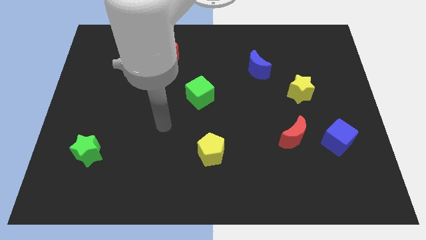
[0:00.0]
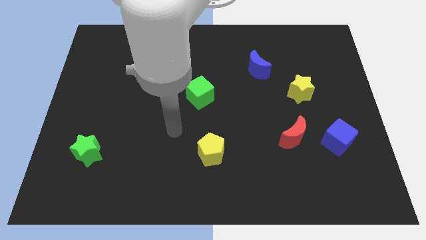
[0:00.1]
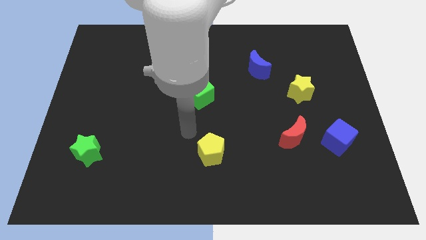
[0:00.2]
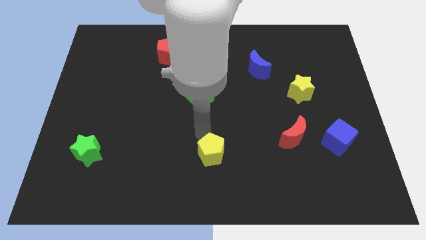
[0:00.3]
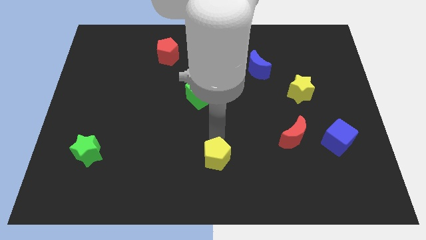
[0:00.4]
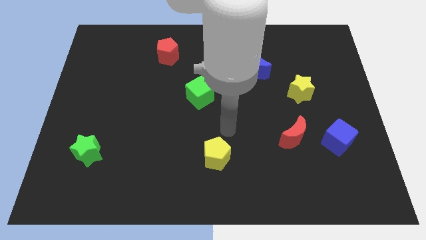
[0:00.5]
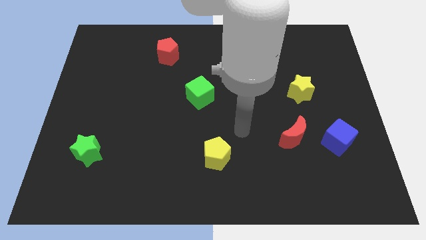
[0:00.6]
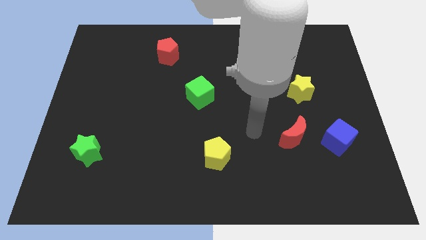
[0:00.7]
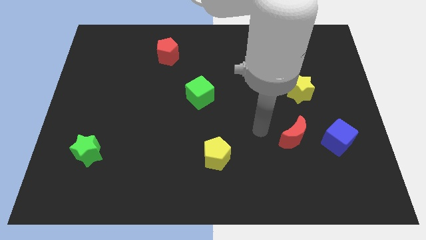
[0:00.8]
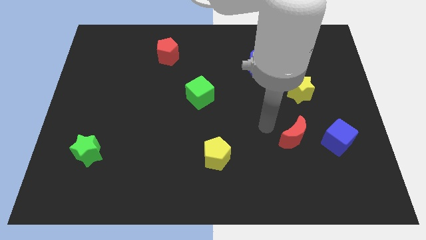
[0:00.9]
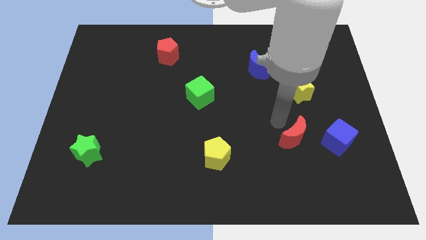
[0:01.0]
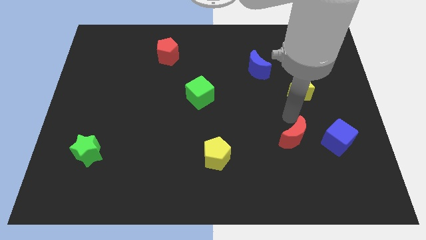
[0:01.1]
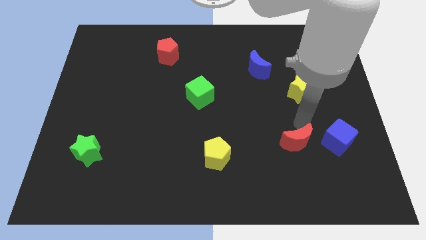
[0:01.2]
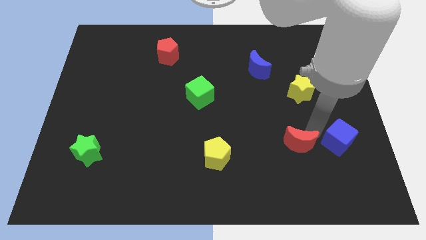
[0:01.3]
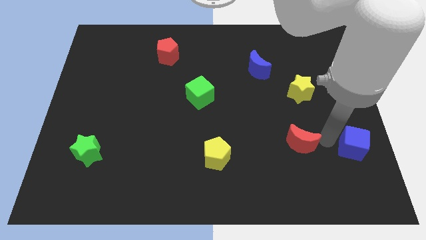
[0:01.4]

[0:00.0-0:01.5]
move the red moon away from the blue cube

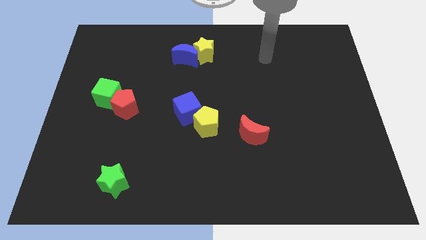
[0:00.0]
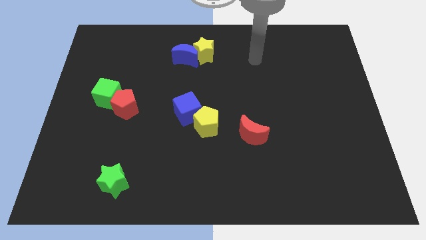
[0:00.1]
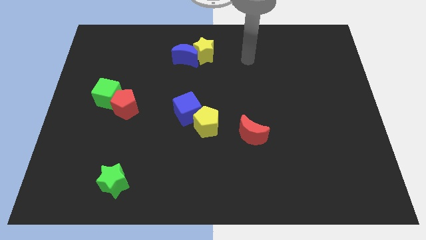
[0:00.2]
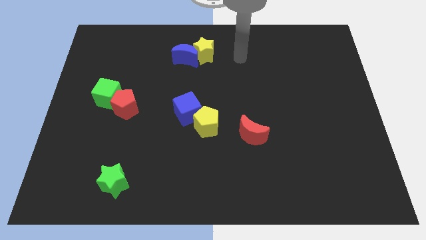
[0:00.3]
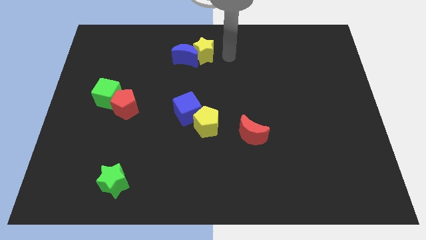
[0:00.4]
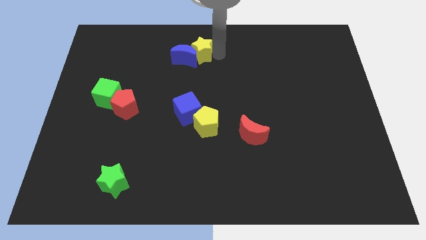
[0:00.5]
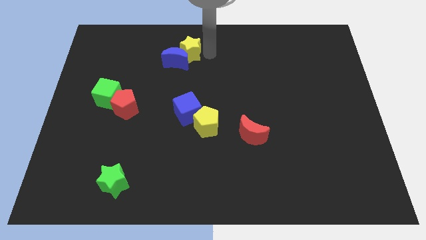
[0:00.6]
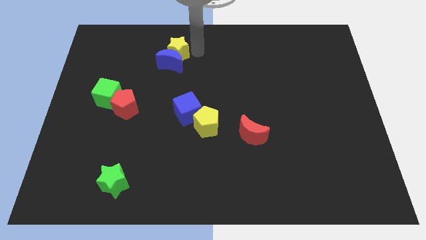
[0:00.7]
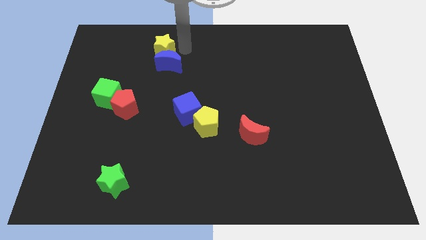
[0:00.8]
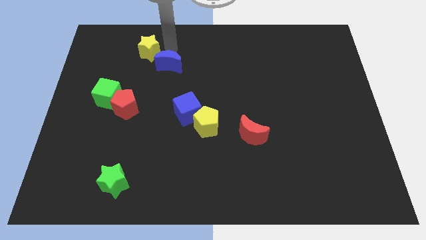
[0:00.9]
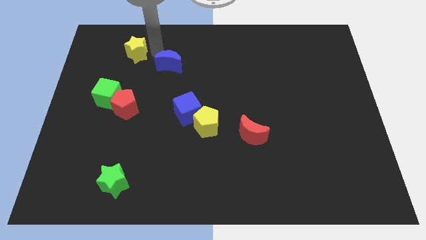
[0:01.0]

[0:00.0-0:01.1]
separate the blue moon from the yellow star

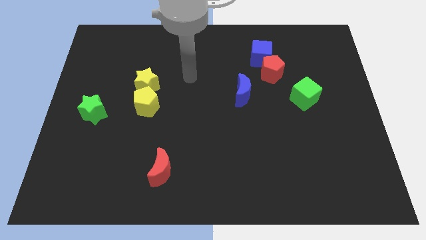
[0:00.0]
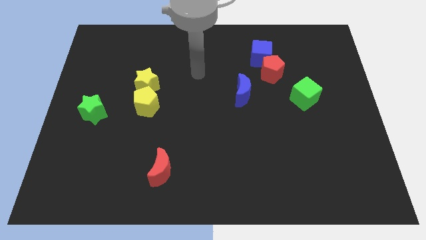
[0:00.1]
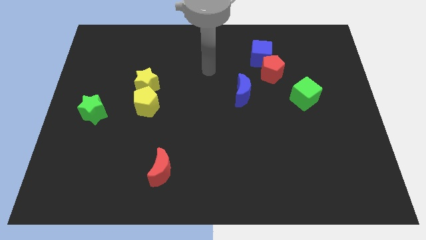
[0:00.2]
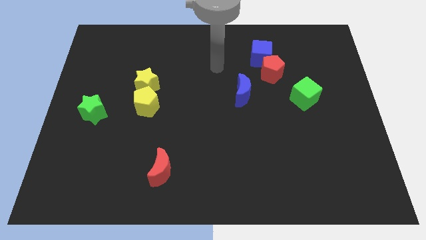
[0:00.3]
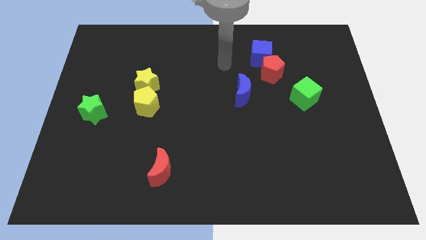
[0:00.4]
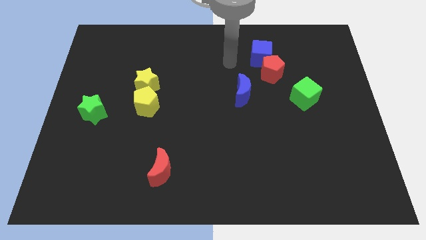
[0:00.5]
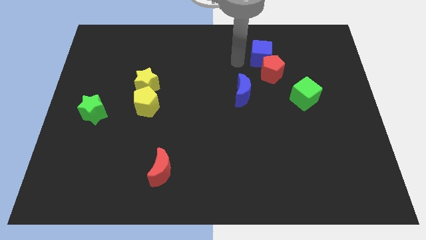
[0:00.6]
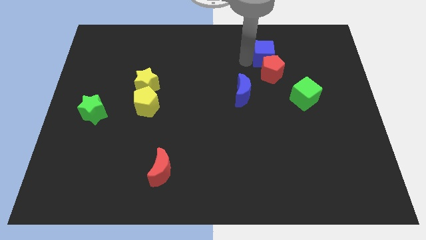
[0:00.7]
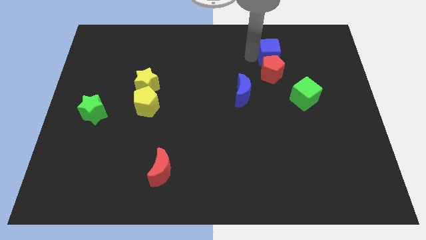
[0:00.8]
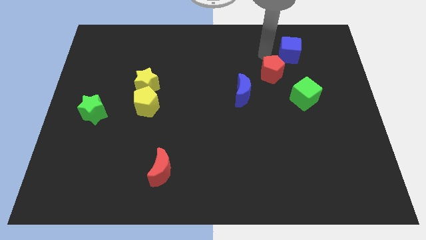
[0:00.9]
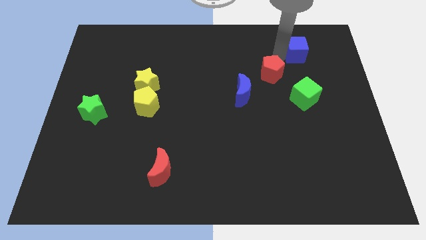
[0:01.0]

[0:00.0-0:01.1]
pull the red pentagon apart from the blue cube

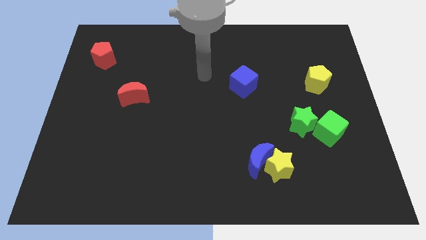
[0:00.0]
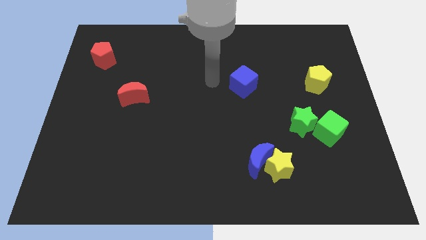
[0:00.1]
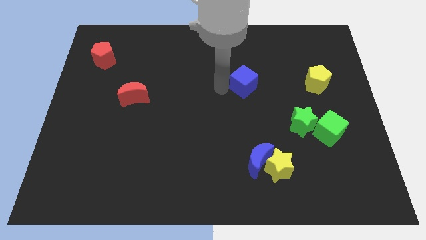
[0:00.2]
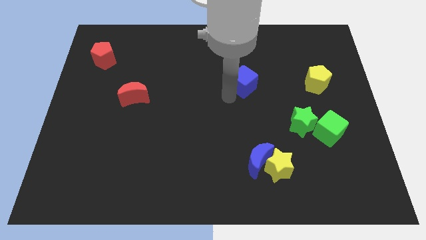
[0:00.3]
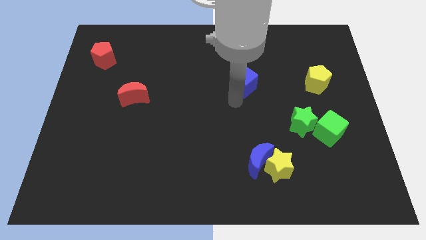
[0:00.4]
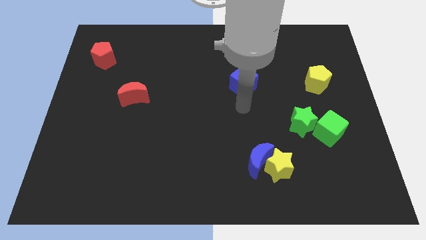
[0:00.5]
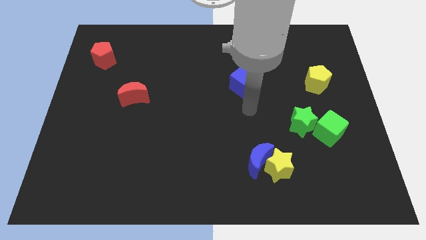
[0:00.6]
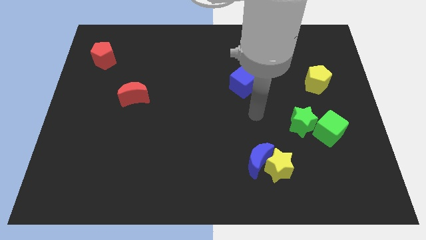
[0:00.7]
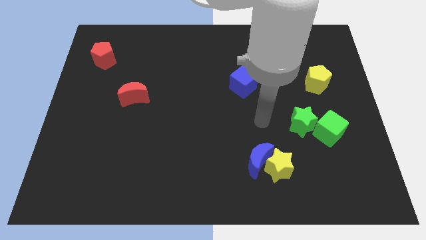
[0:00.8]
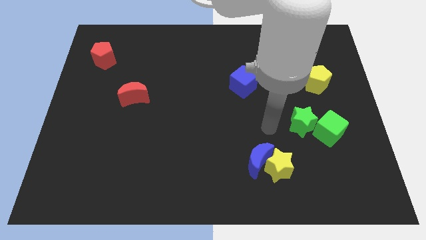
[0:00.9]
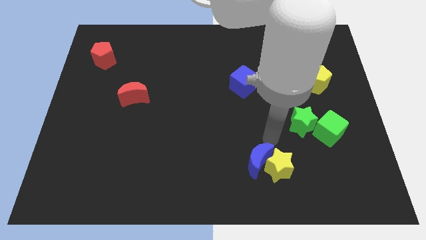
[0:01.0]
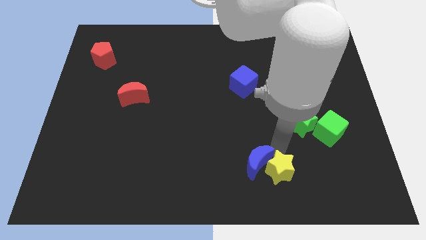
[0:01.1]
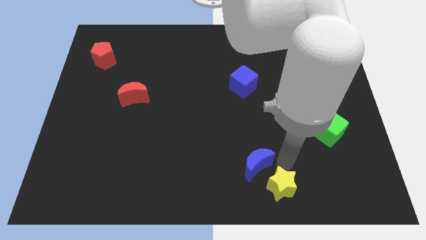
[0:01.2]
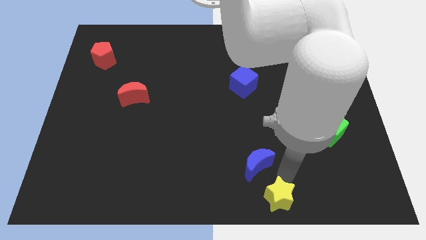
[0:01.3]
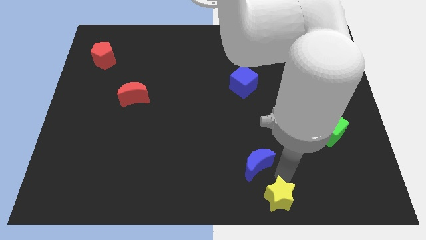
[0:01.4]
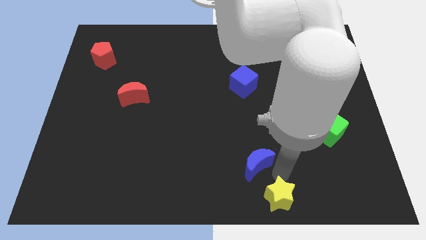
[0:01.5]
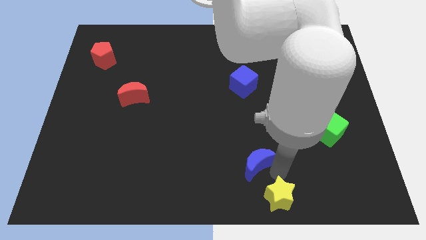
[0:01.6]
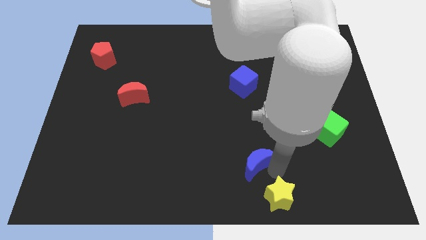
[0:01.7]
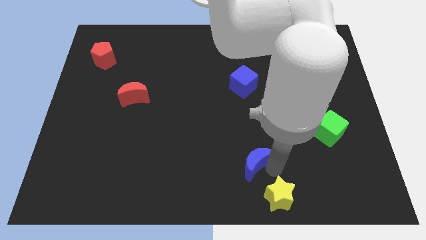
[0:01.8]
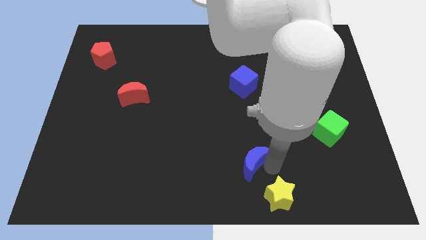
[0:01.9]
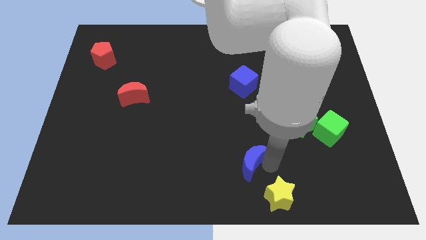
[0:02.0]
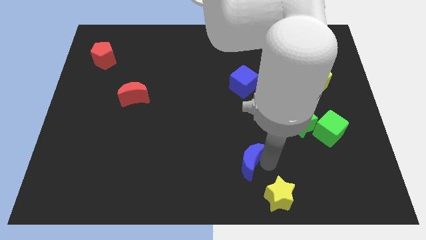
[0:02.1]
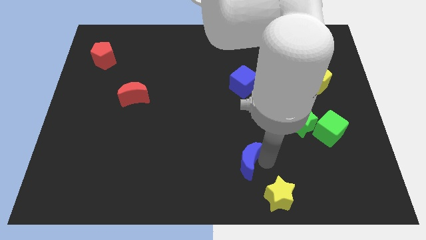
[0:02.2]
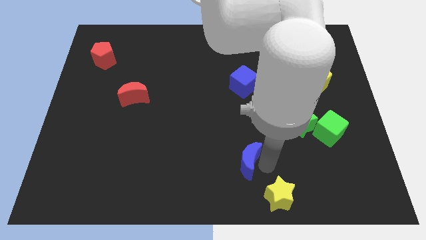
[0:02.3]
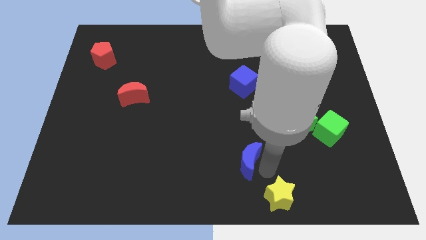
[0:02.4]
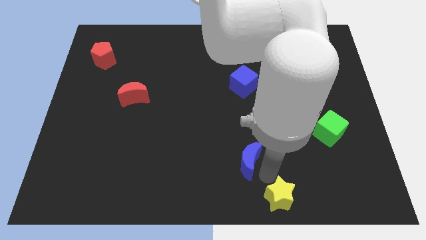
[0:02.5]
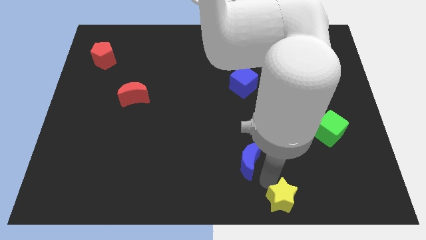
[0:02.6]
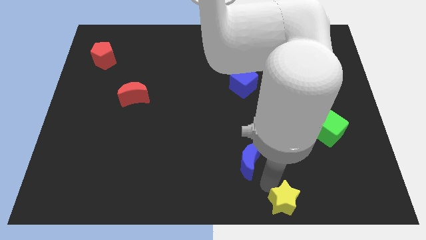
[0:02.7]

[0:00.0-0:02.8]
pull the blue moon apart from the yellow star

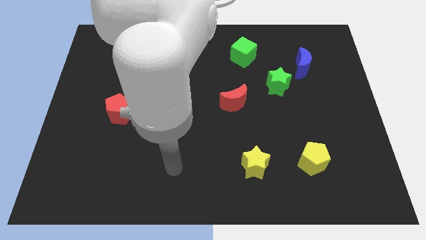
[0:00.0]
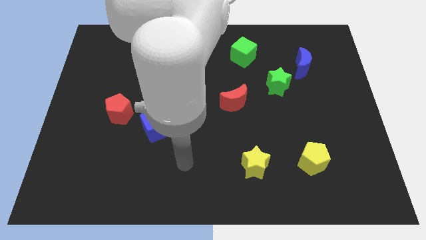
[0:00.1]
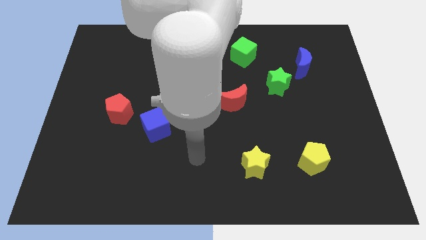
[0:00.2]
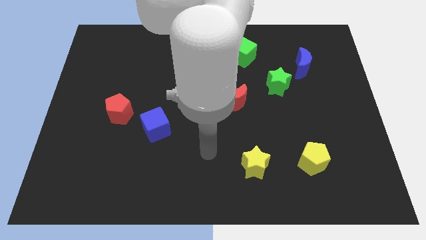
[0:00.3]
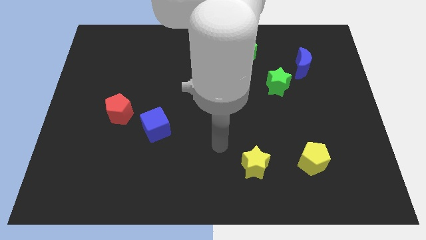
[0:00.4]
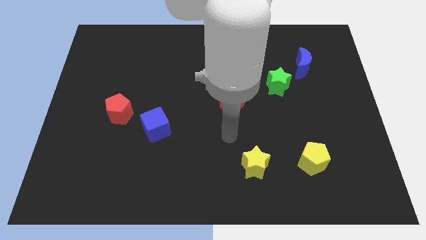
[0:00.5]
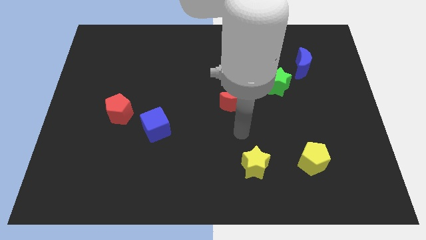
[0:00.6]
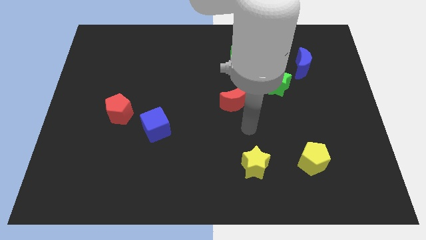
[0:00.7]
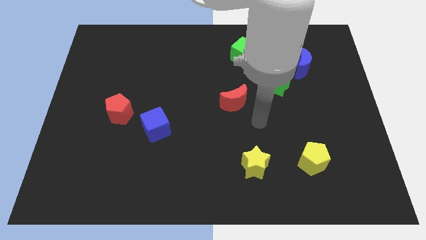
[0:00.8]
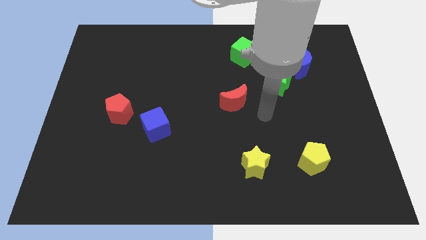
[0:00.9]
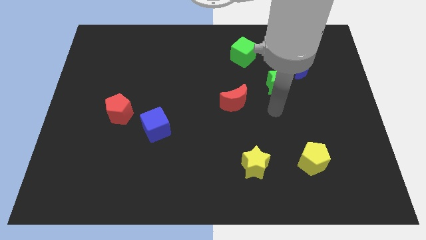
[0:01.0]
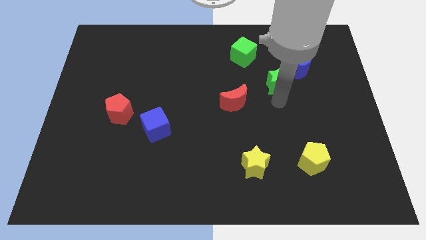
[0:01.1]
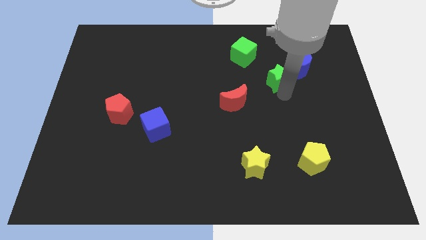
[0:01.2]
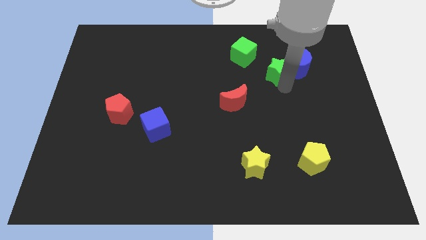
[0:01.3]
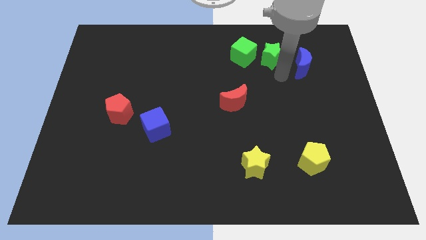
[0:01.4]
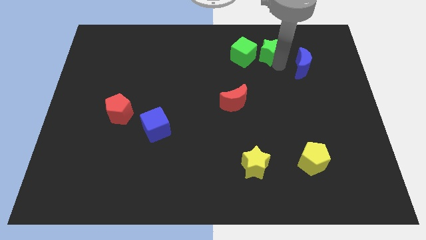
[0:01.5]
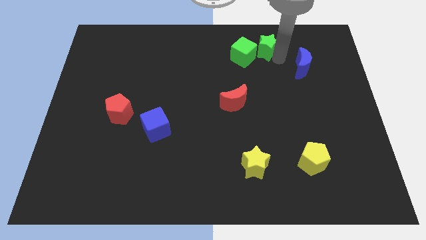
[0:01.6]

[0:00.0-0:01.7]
move the blue moon away from the green star

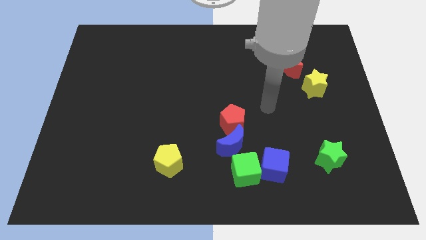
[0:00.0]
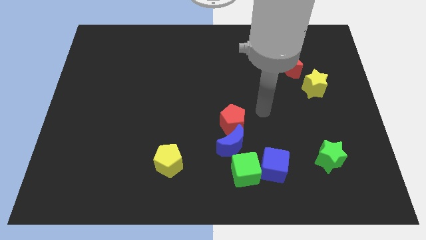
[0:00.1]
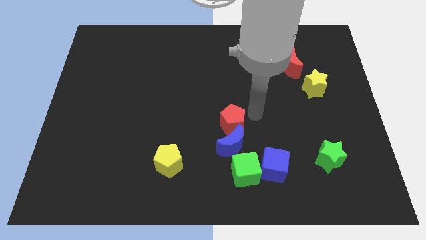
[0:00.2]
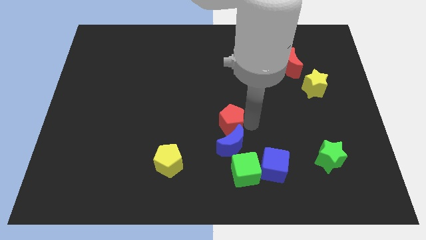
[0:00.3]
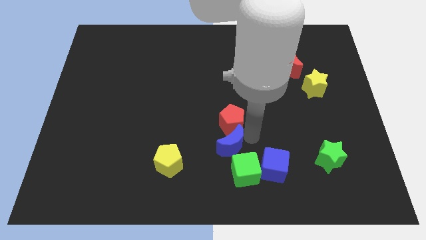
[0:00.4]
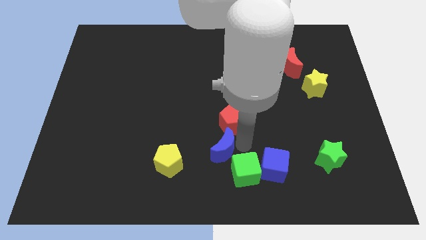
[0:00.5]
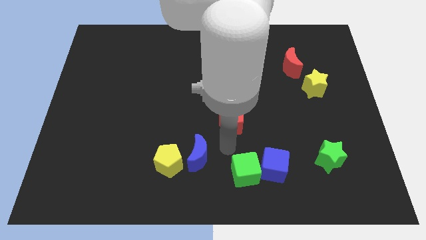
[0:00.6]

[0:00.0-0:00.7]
move the red pentagon away from the blue moon
